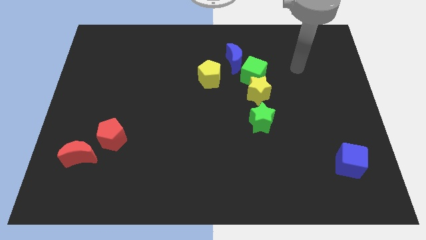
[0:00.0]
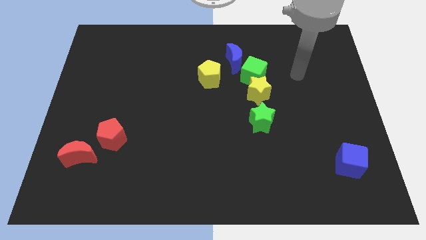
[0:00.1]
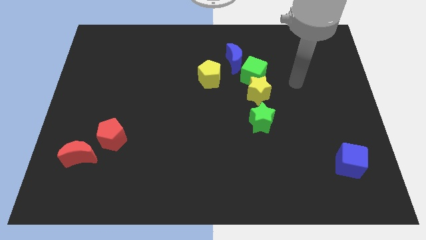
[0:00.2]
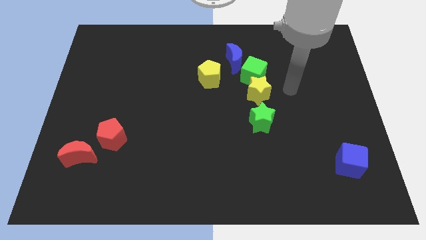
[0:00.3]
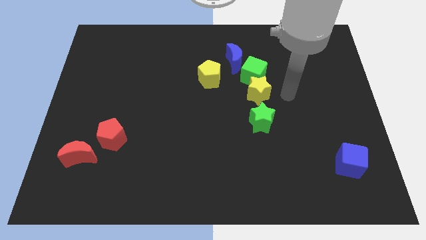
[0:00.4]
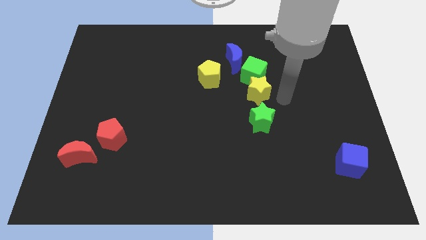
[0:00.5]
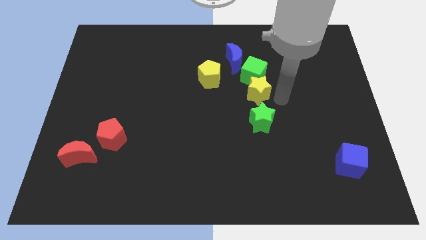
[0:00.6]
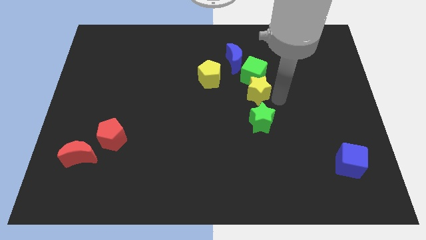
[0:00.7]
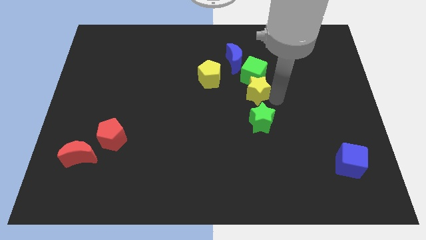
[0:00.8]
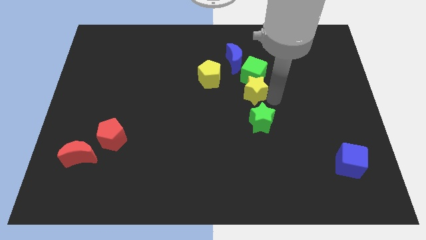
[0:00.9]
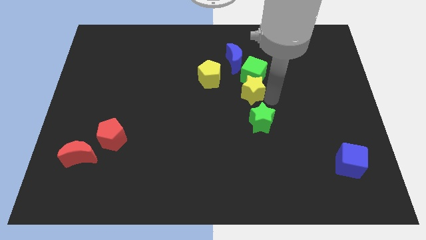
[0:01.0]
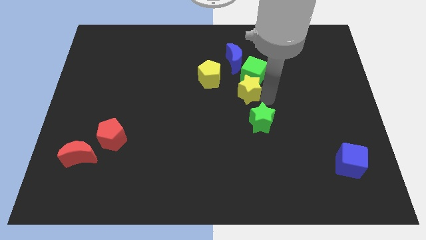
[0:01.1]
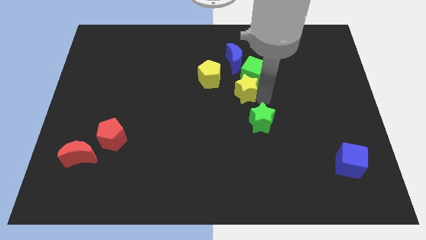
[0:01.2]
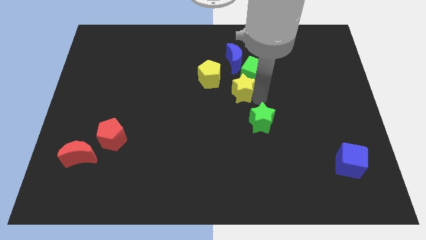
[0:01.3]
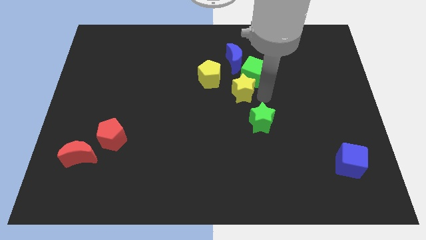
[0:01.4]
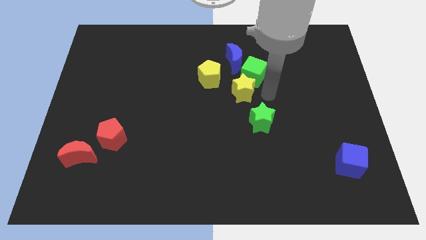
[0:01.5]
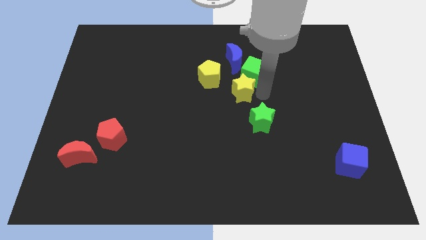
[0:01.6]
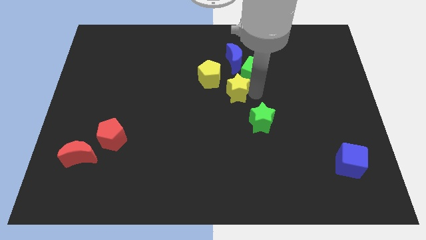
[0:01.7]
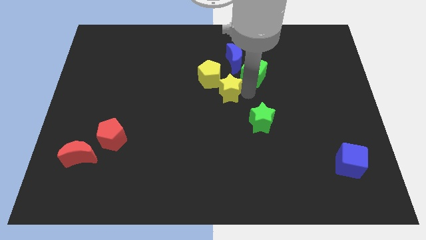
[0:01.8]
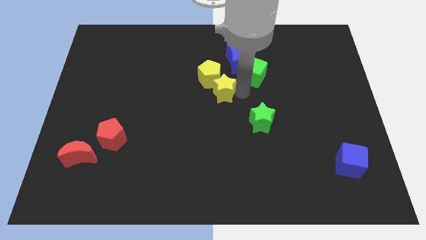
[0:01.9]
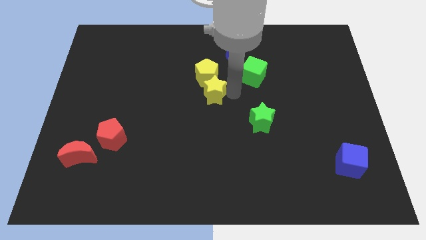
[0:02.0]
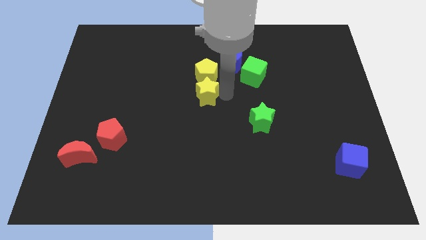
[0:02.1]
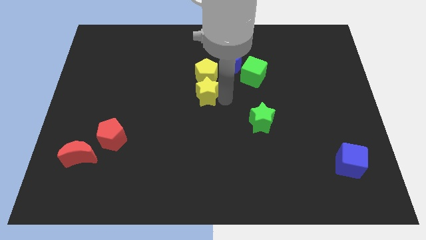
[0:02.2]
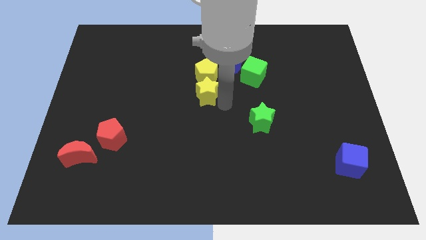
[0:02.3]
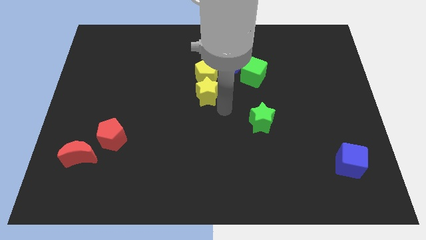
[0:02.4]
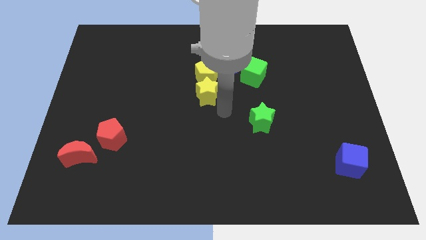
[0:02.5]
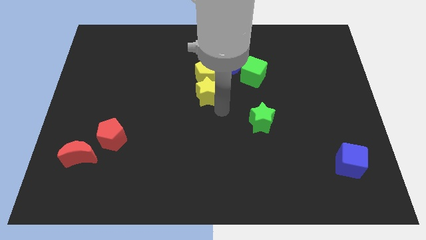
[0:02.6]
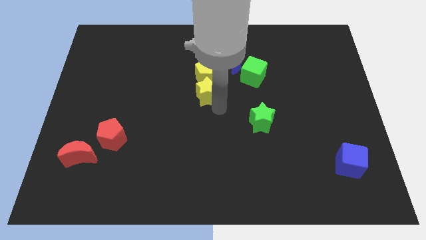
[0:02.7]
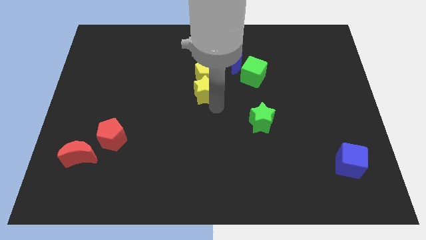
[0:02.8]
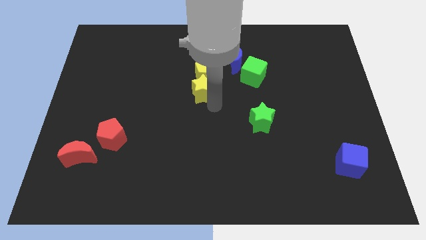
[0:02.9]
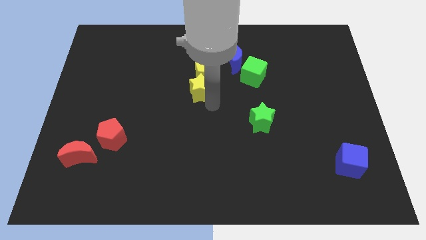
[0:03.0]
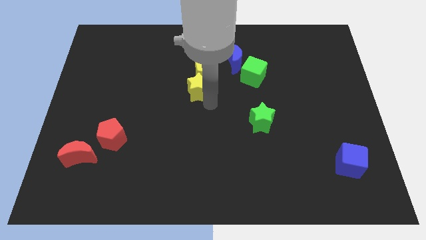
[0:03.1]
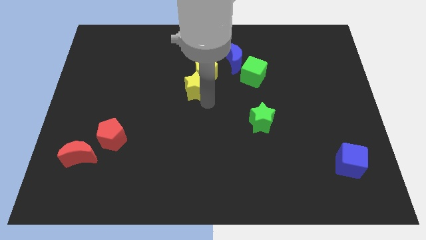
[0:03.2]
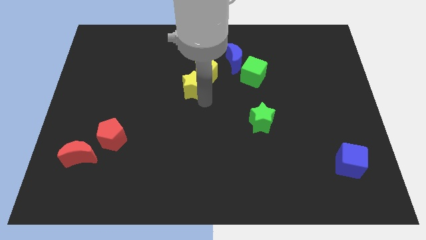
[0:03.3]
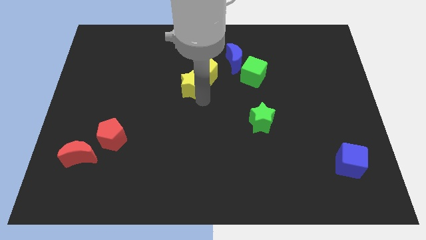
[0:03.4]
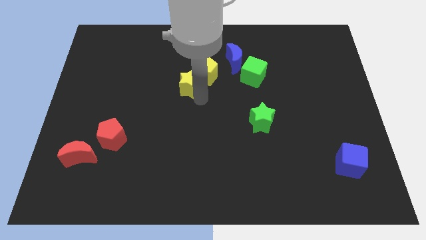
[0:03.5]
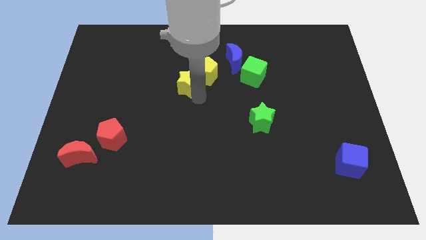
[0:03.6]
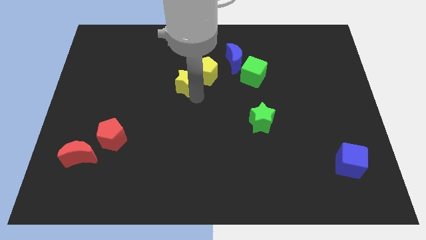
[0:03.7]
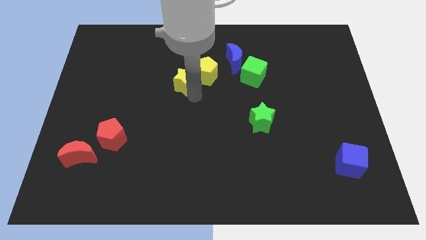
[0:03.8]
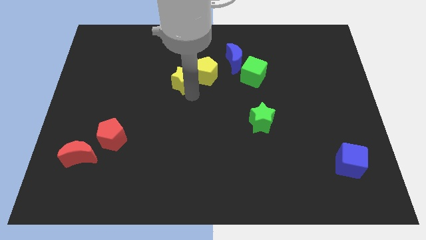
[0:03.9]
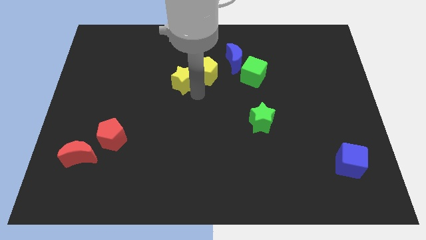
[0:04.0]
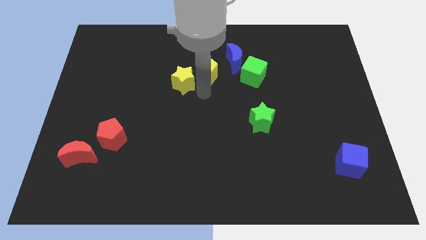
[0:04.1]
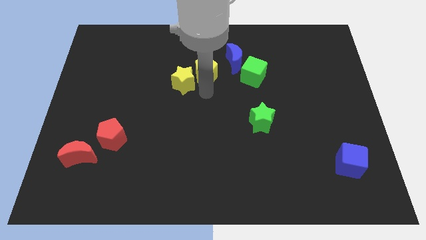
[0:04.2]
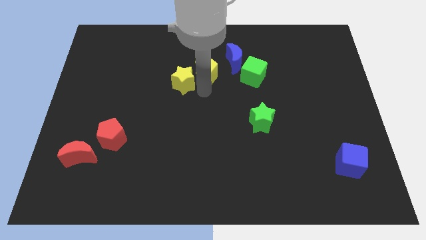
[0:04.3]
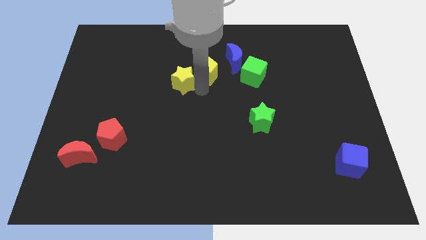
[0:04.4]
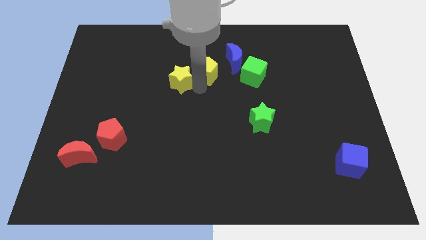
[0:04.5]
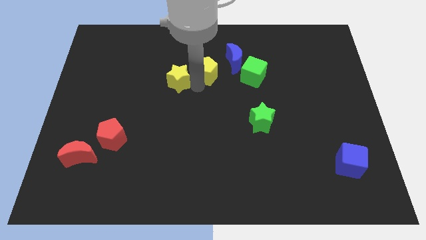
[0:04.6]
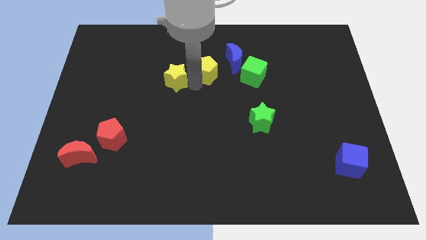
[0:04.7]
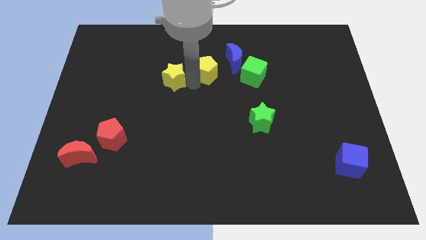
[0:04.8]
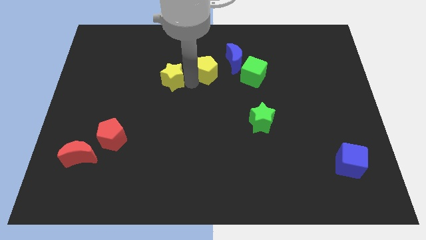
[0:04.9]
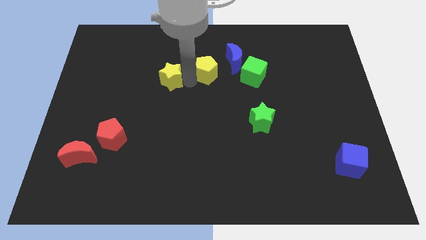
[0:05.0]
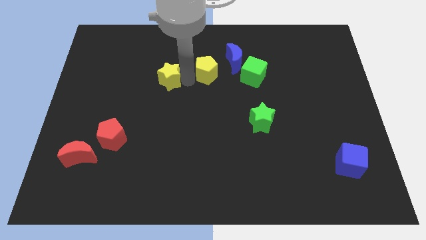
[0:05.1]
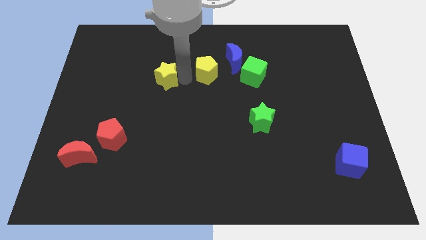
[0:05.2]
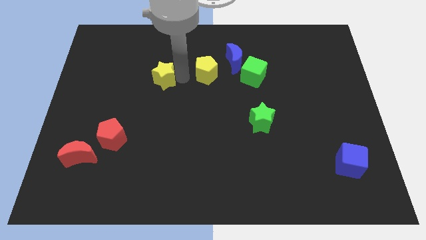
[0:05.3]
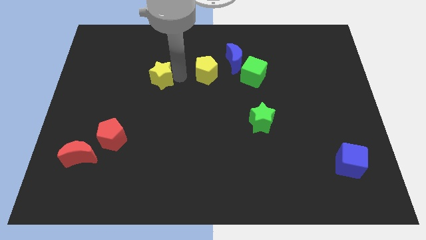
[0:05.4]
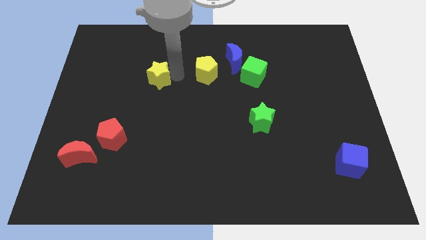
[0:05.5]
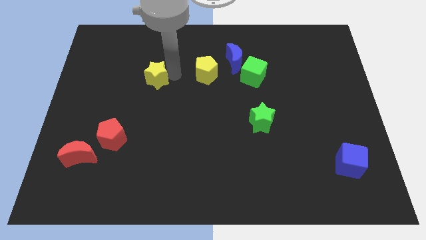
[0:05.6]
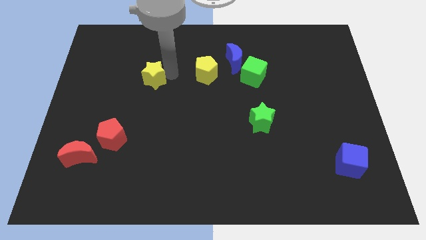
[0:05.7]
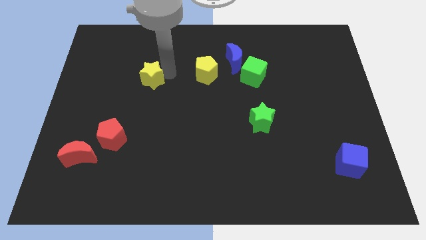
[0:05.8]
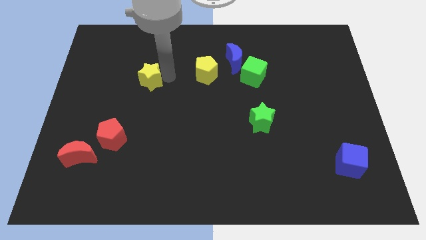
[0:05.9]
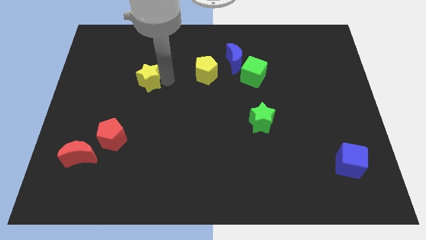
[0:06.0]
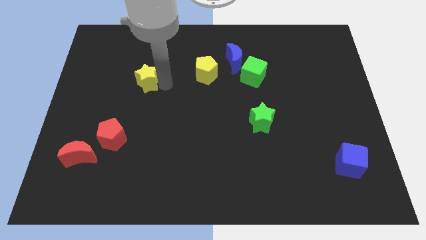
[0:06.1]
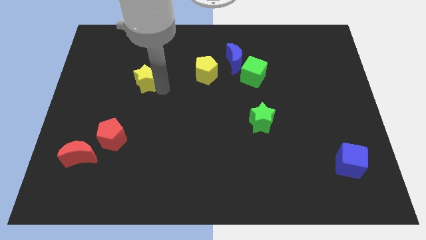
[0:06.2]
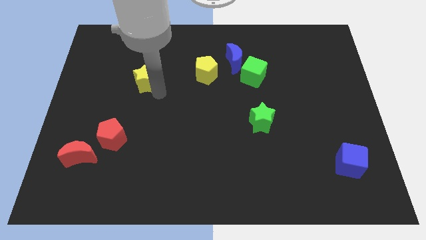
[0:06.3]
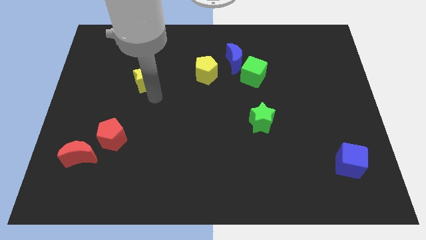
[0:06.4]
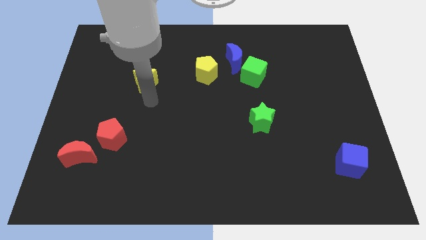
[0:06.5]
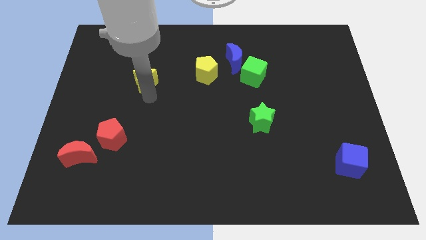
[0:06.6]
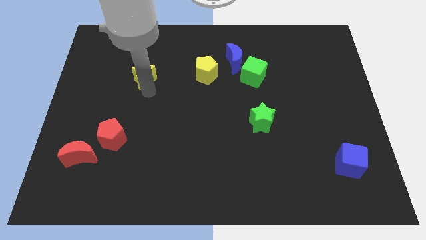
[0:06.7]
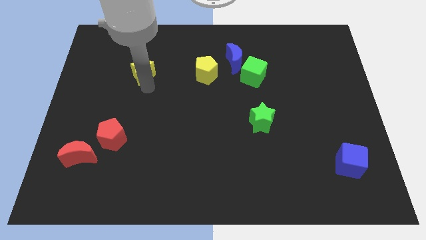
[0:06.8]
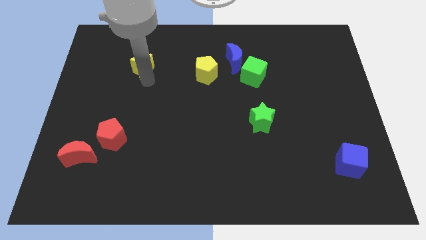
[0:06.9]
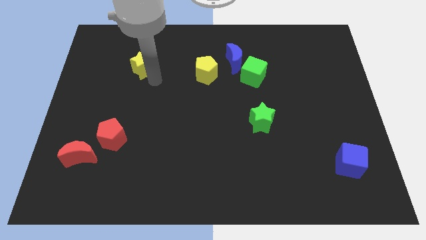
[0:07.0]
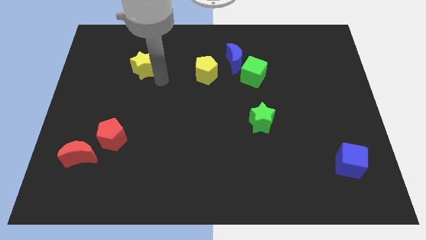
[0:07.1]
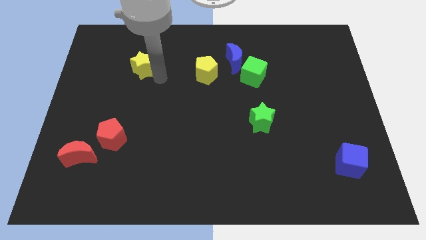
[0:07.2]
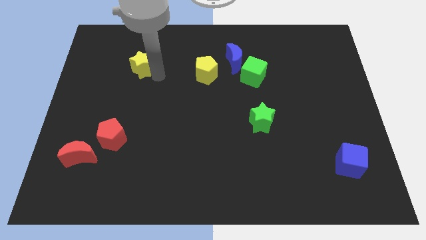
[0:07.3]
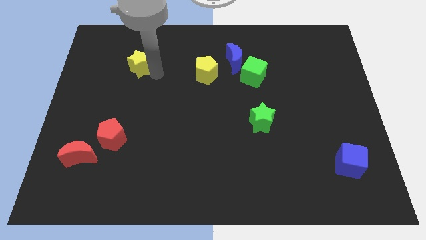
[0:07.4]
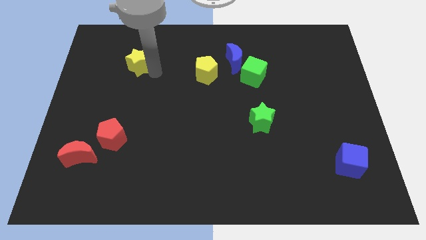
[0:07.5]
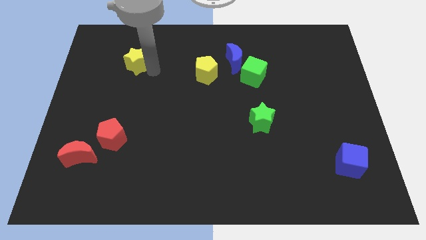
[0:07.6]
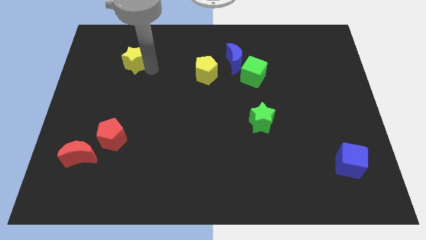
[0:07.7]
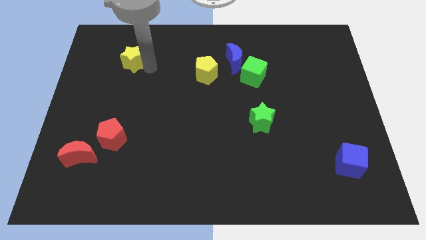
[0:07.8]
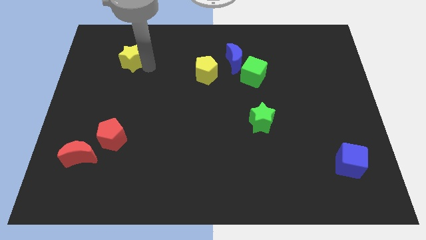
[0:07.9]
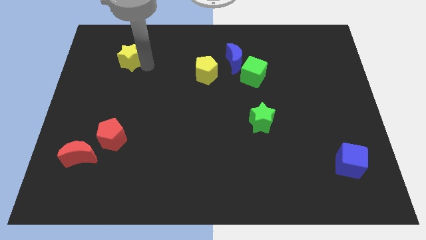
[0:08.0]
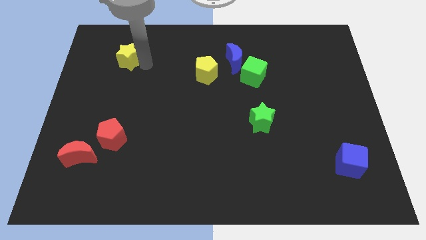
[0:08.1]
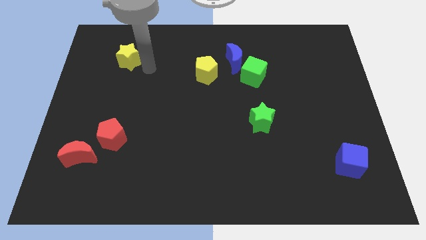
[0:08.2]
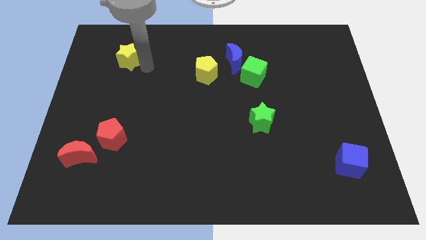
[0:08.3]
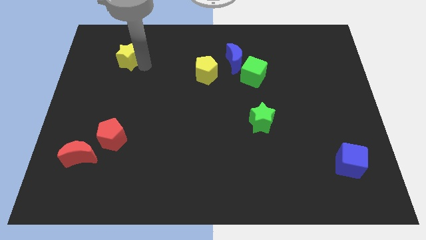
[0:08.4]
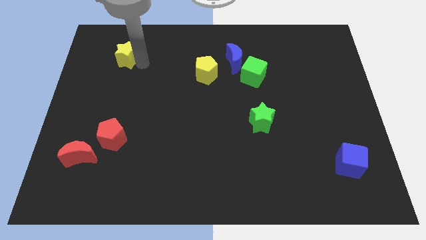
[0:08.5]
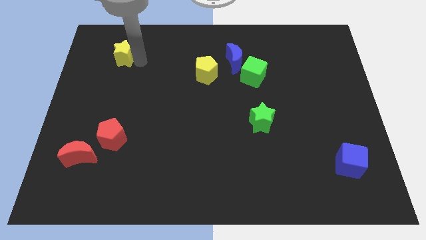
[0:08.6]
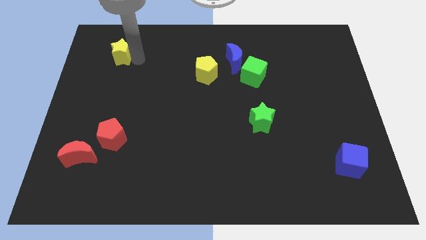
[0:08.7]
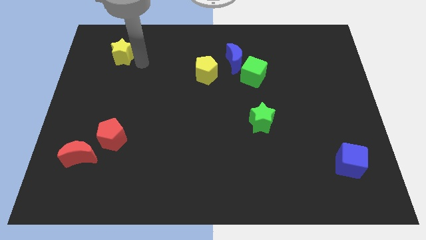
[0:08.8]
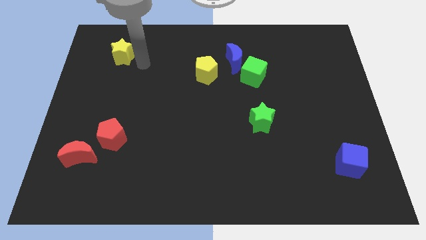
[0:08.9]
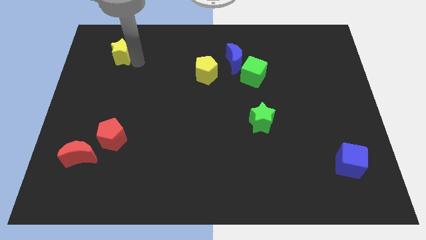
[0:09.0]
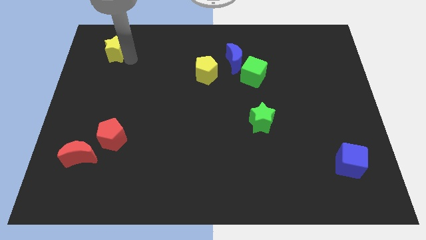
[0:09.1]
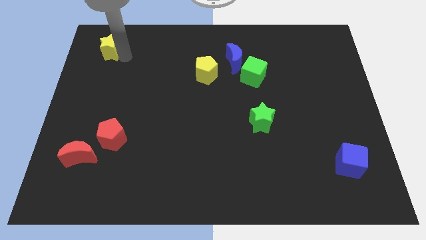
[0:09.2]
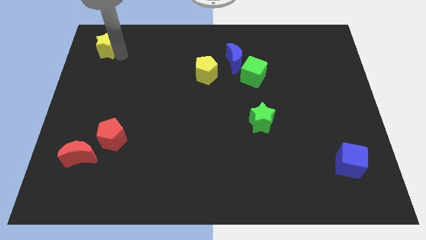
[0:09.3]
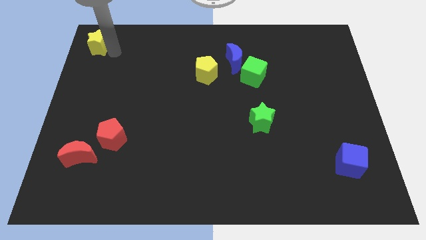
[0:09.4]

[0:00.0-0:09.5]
put the yellow star to the top left
